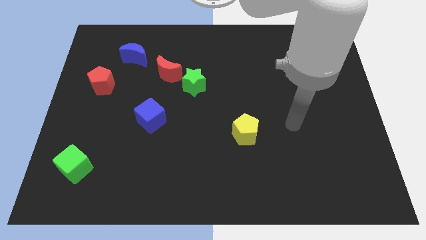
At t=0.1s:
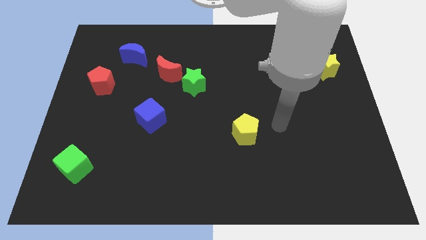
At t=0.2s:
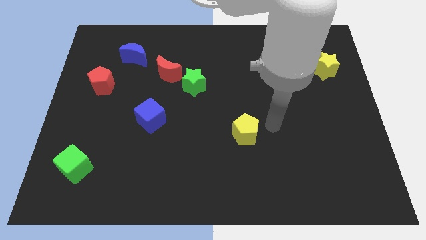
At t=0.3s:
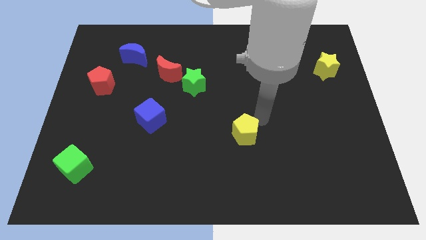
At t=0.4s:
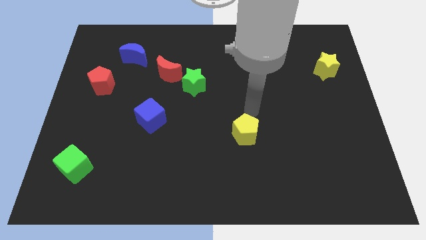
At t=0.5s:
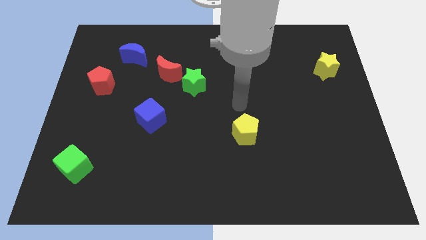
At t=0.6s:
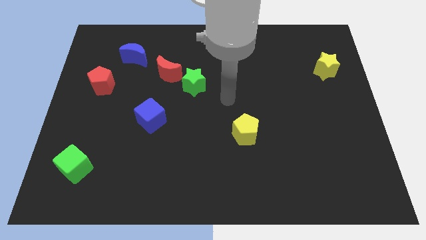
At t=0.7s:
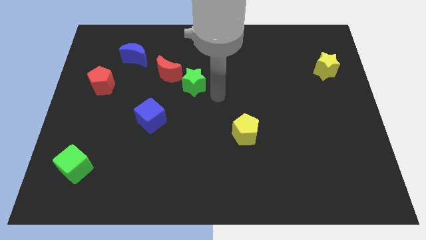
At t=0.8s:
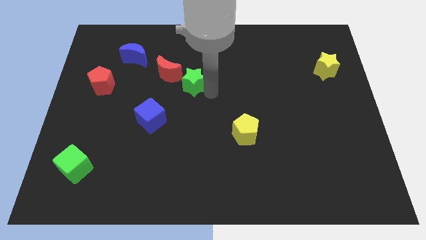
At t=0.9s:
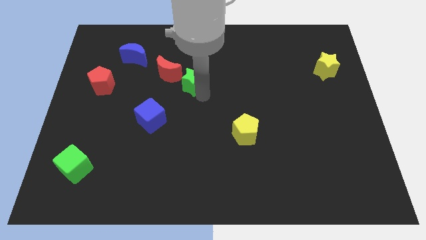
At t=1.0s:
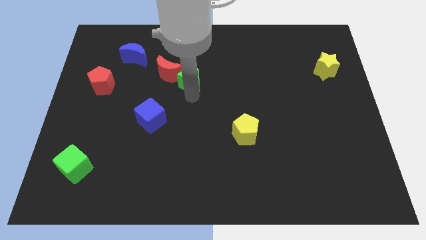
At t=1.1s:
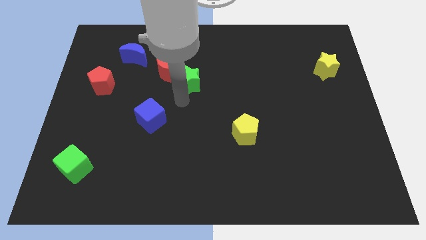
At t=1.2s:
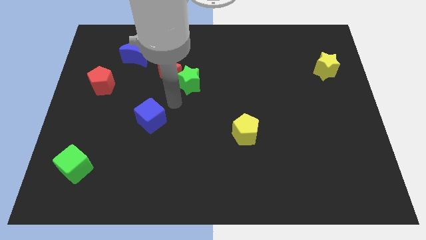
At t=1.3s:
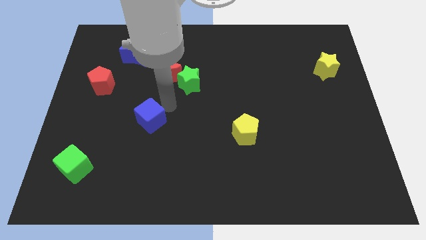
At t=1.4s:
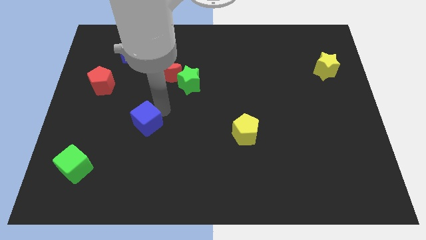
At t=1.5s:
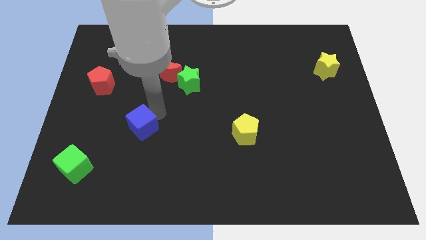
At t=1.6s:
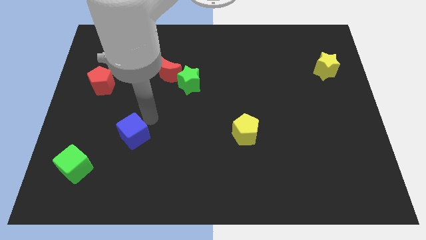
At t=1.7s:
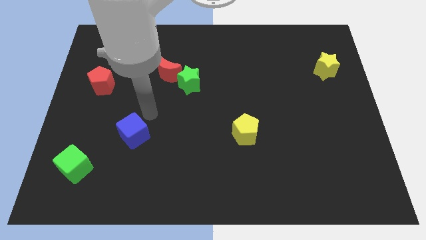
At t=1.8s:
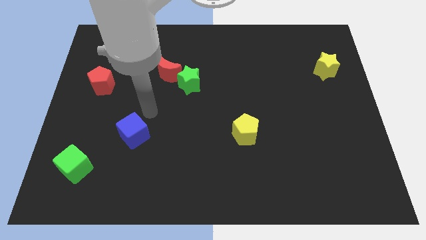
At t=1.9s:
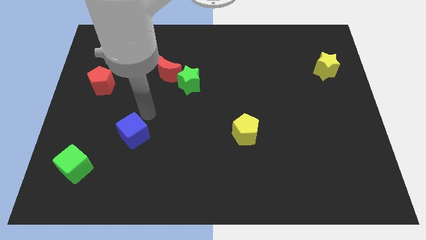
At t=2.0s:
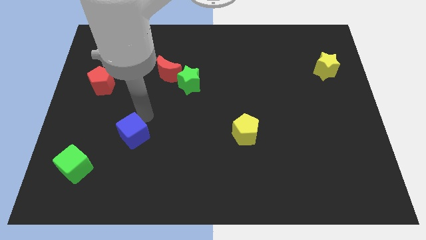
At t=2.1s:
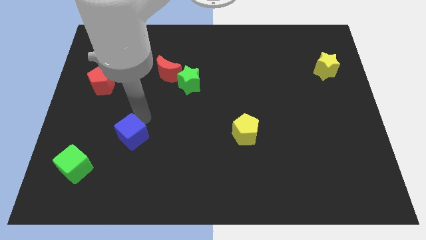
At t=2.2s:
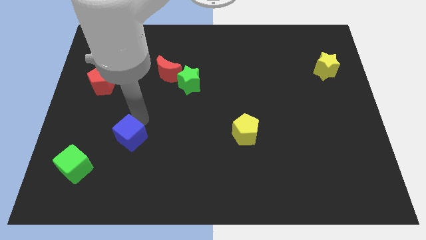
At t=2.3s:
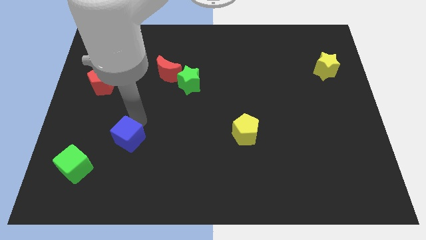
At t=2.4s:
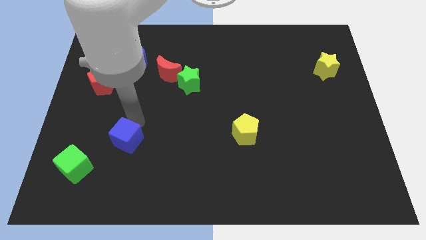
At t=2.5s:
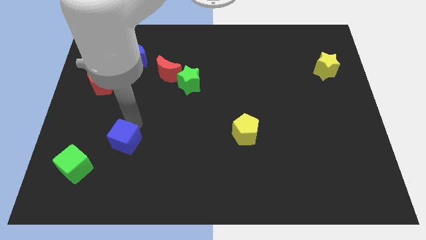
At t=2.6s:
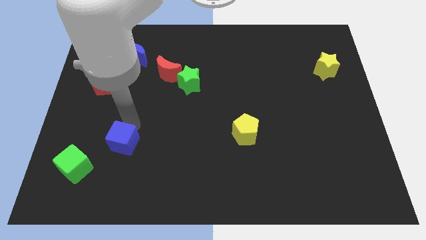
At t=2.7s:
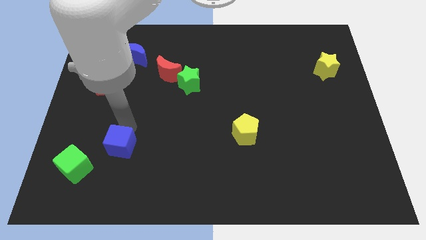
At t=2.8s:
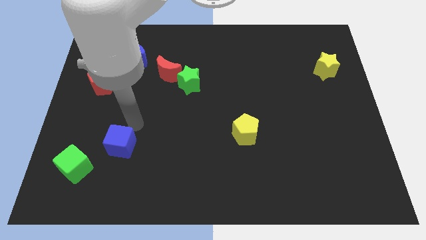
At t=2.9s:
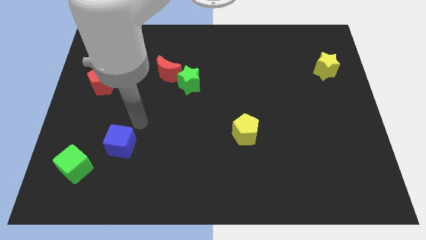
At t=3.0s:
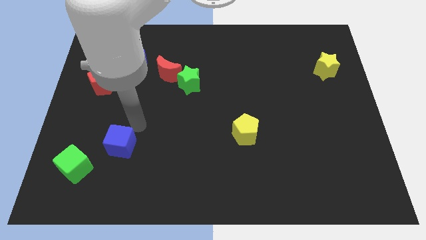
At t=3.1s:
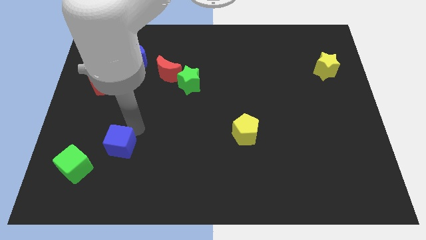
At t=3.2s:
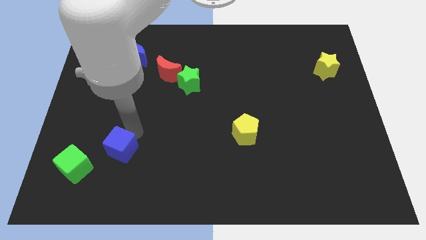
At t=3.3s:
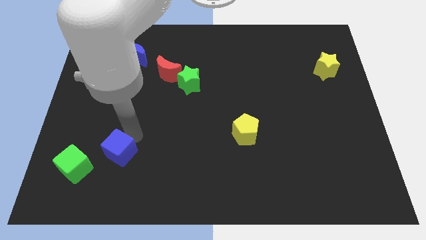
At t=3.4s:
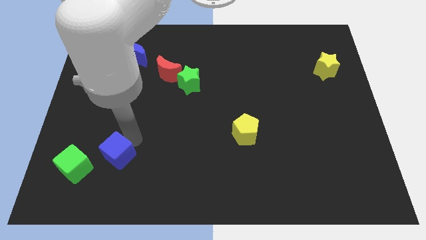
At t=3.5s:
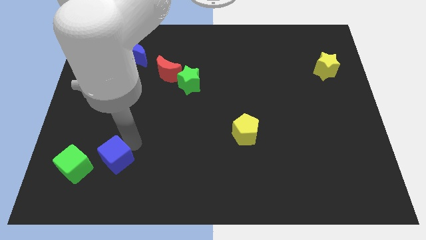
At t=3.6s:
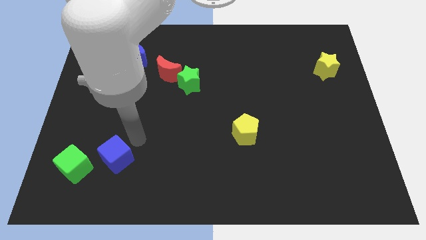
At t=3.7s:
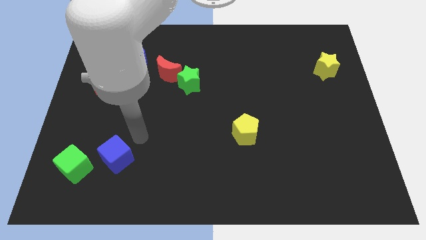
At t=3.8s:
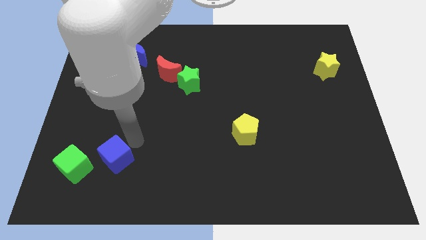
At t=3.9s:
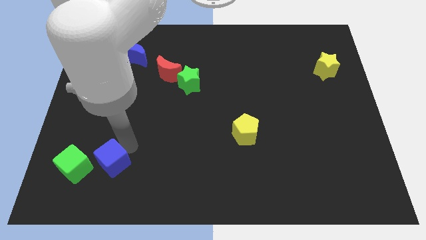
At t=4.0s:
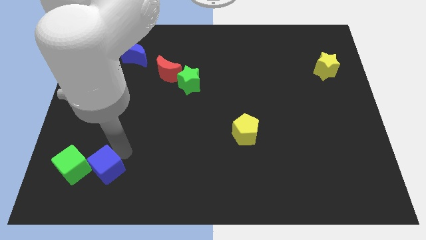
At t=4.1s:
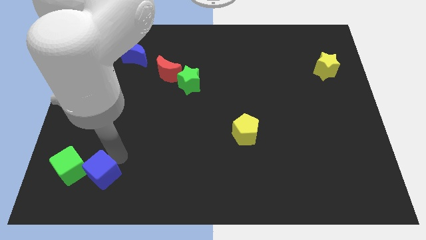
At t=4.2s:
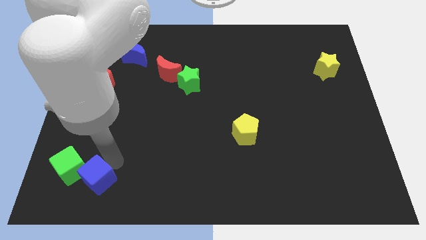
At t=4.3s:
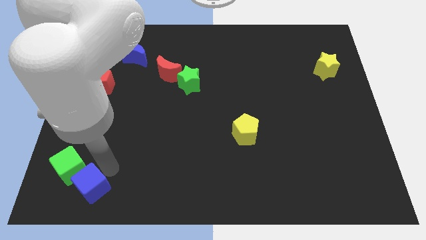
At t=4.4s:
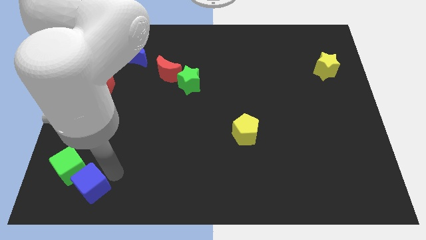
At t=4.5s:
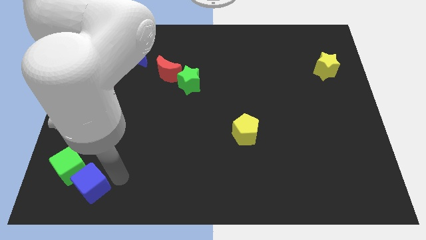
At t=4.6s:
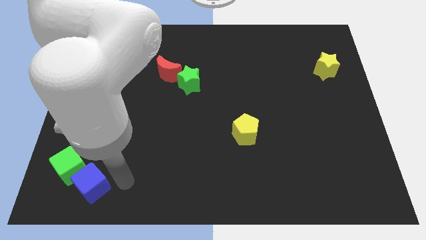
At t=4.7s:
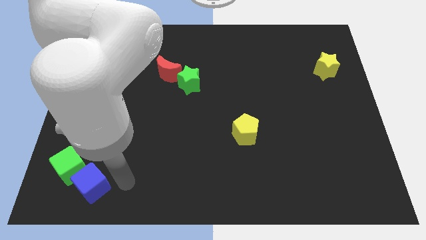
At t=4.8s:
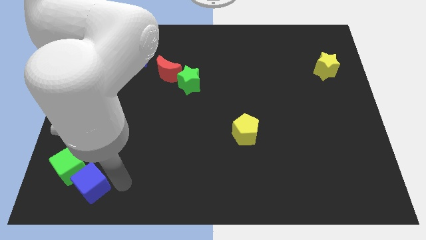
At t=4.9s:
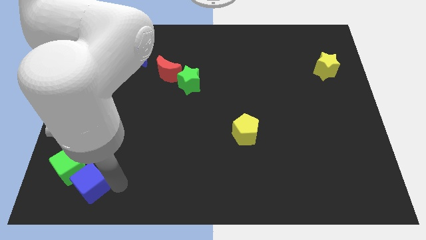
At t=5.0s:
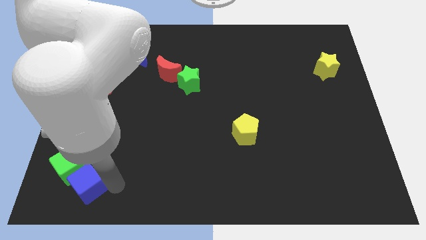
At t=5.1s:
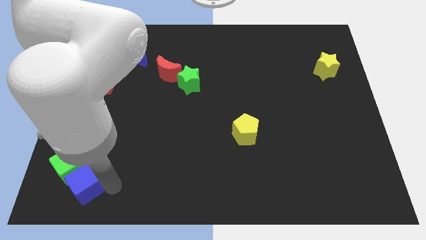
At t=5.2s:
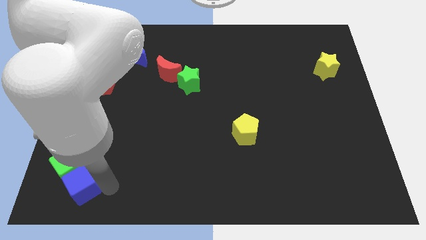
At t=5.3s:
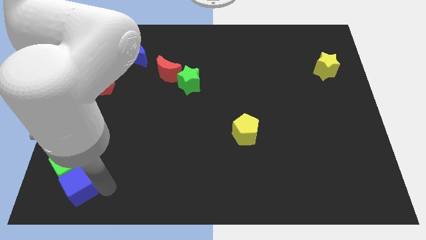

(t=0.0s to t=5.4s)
push the blue cube to the bottom left of the board

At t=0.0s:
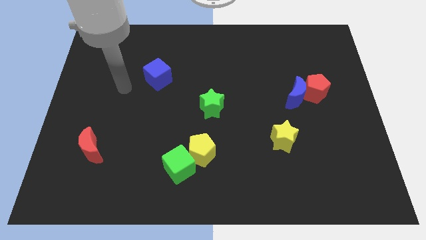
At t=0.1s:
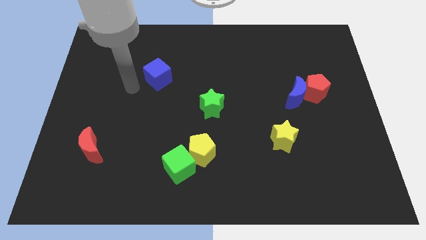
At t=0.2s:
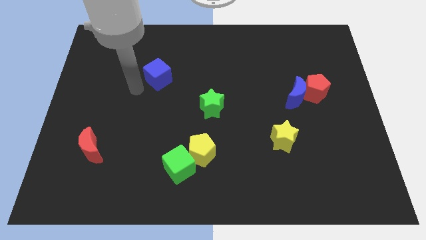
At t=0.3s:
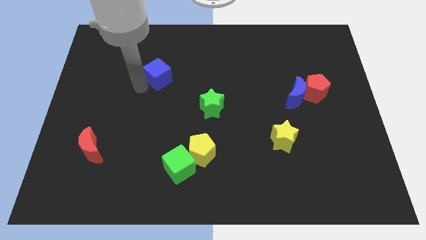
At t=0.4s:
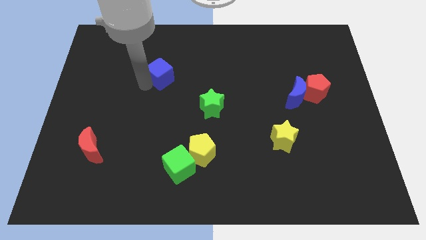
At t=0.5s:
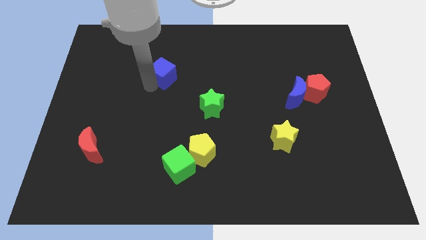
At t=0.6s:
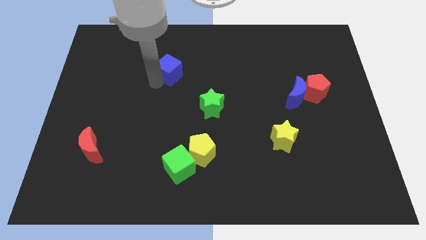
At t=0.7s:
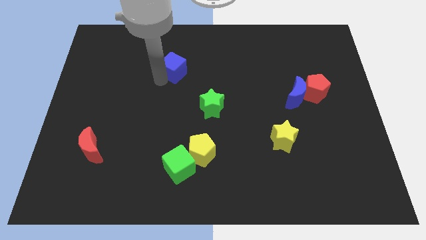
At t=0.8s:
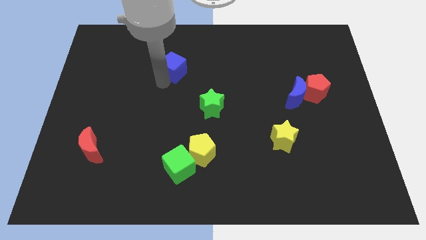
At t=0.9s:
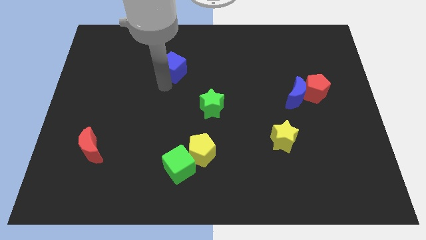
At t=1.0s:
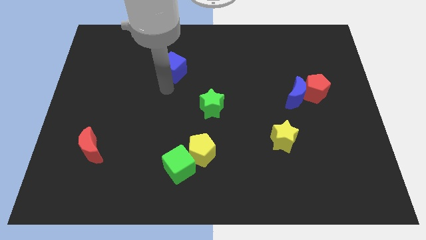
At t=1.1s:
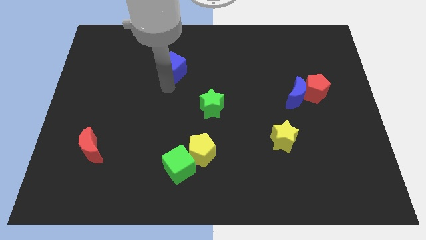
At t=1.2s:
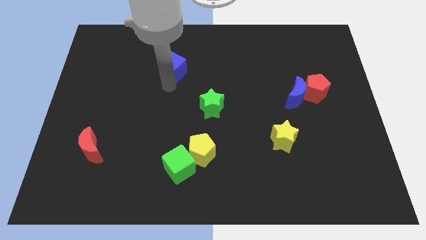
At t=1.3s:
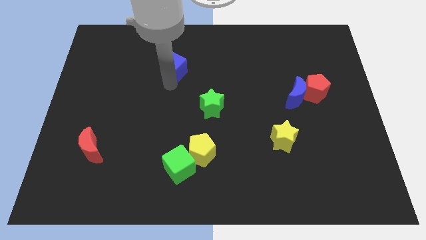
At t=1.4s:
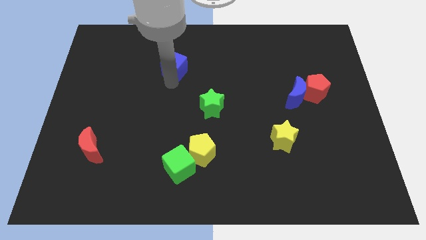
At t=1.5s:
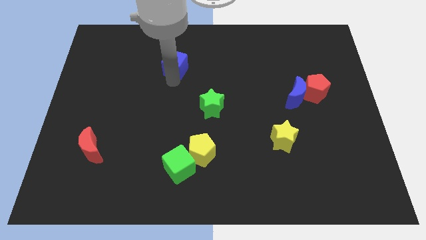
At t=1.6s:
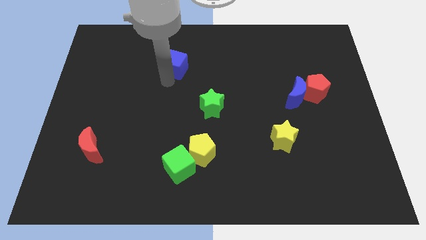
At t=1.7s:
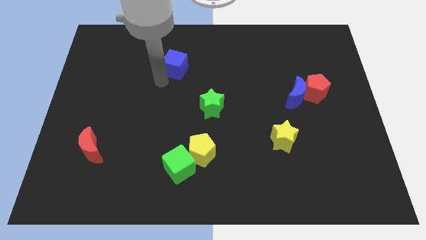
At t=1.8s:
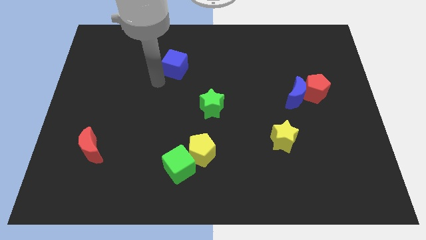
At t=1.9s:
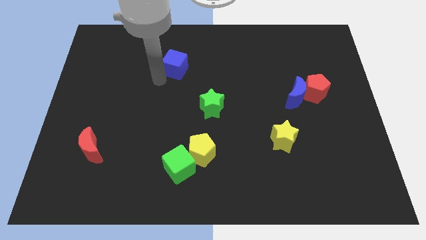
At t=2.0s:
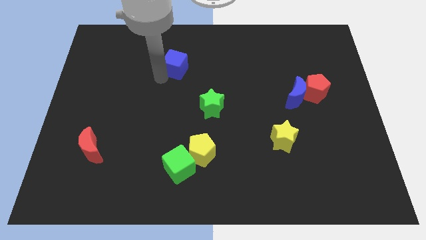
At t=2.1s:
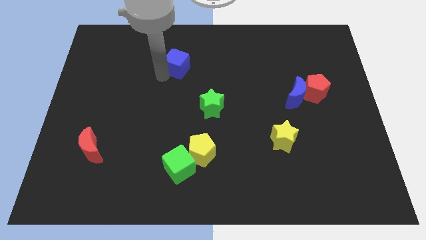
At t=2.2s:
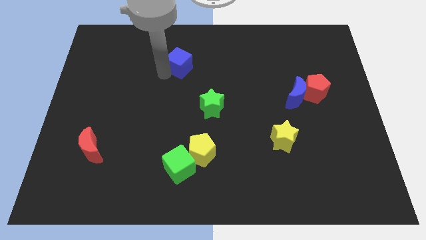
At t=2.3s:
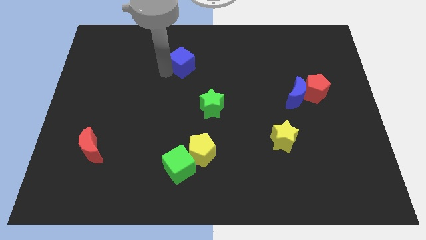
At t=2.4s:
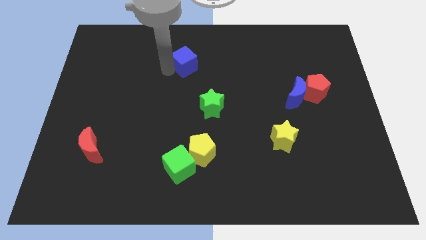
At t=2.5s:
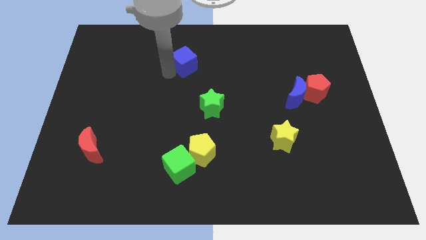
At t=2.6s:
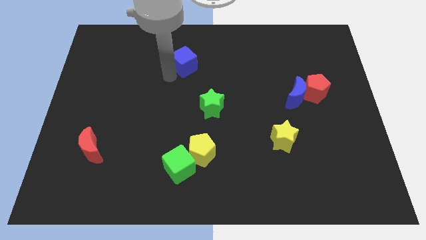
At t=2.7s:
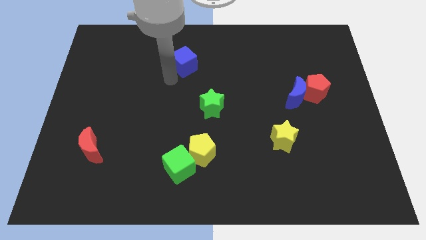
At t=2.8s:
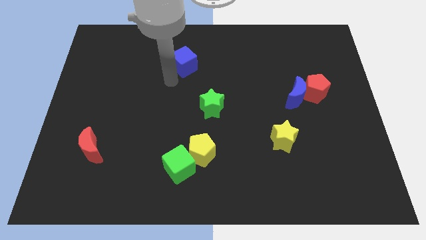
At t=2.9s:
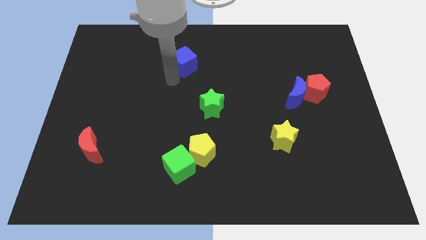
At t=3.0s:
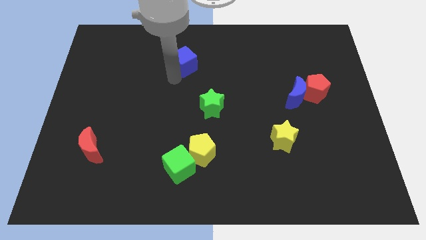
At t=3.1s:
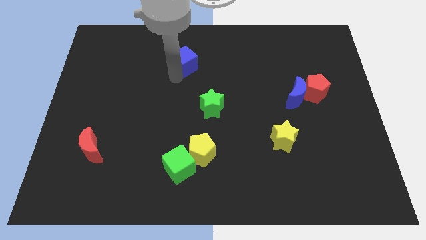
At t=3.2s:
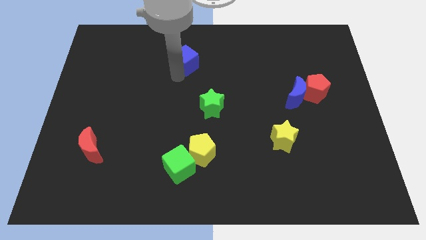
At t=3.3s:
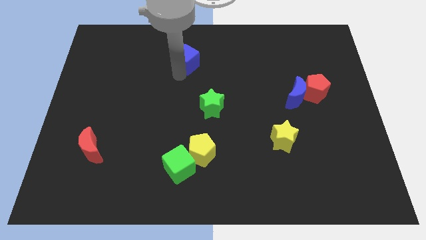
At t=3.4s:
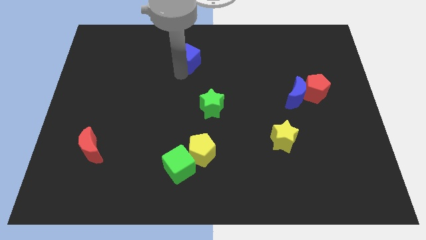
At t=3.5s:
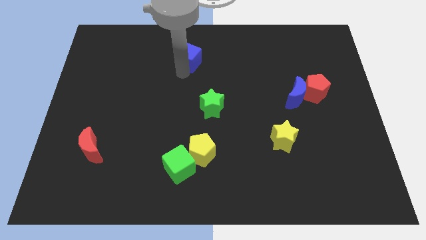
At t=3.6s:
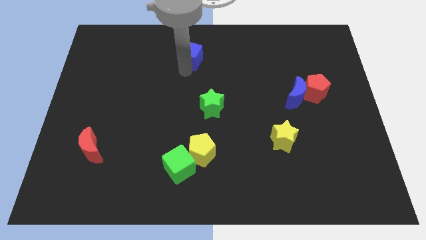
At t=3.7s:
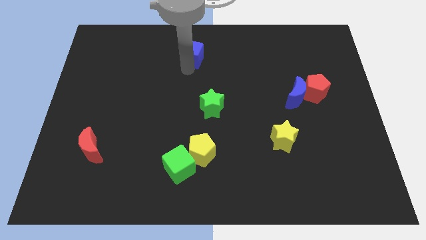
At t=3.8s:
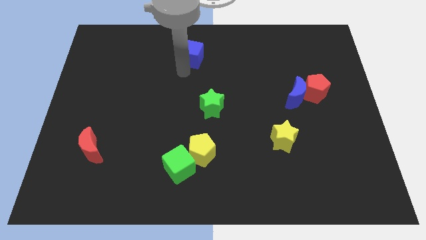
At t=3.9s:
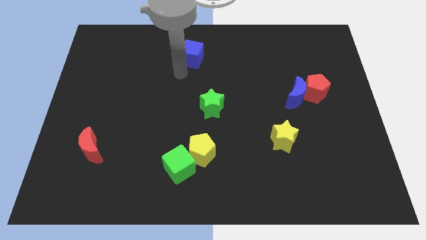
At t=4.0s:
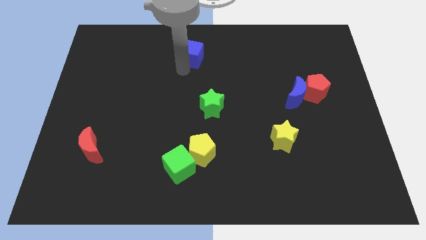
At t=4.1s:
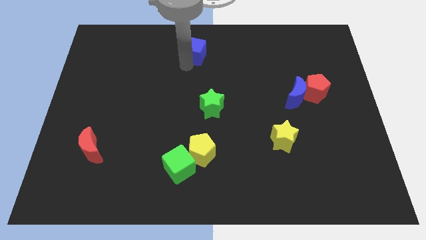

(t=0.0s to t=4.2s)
push the blue cube to the towards your base
